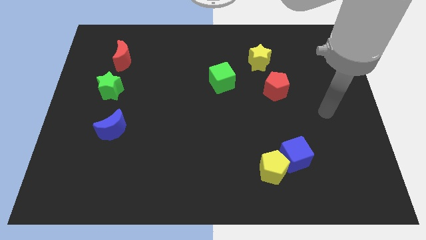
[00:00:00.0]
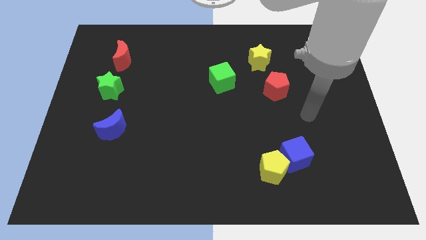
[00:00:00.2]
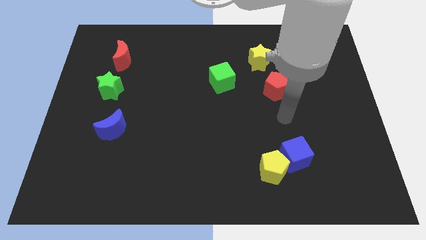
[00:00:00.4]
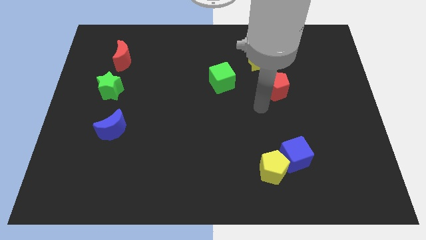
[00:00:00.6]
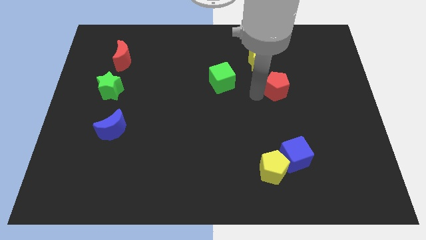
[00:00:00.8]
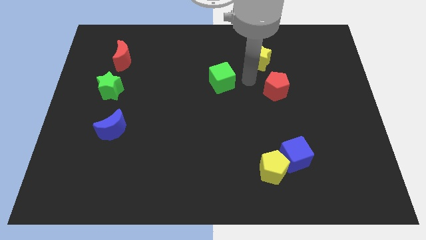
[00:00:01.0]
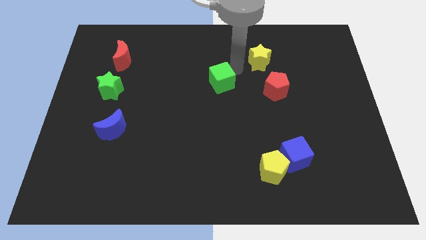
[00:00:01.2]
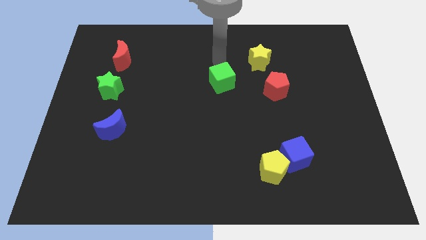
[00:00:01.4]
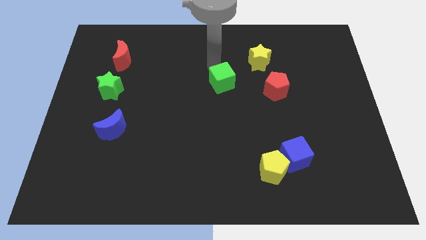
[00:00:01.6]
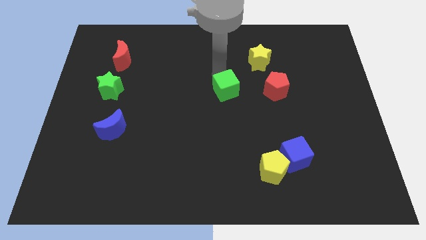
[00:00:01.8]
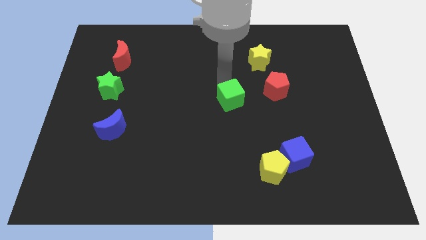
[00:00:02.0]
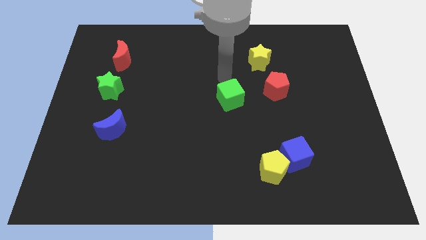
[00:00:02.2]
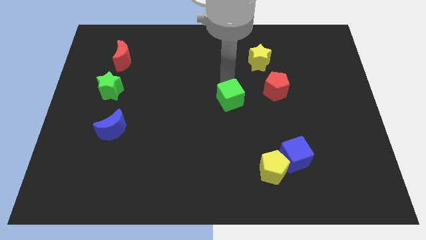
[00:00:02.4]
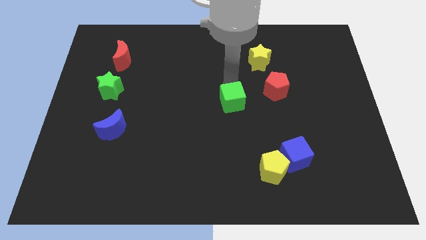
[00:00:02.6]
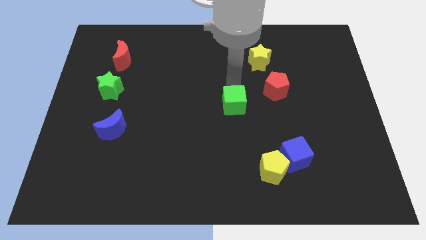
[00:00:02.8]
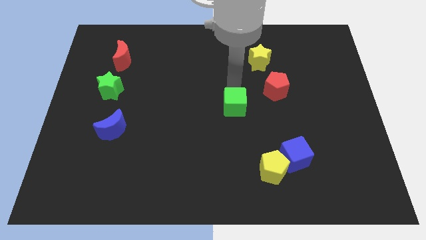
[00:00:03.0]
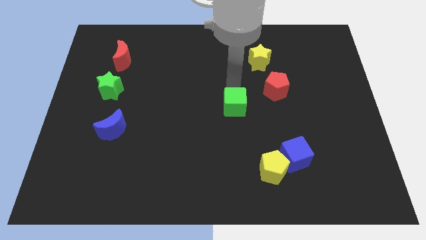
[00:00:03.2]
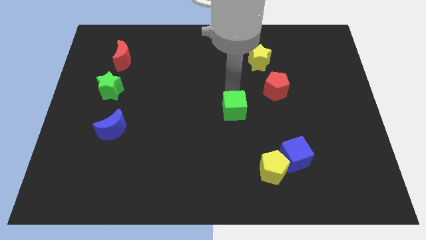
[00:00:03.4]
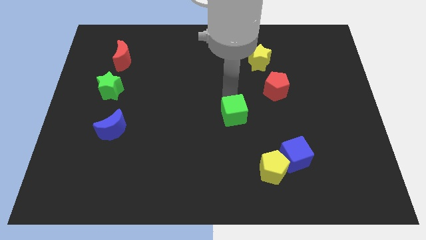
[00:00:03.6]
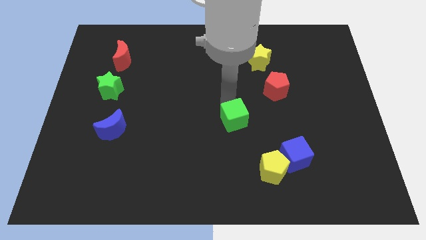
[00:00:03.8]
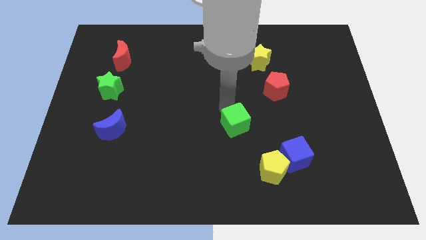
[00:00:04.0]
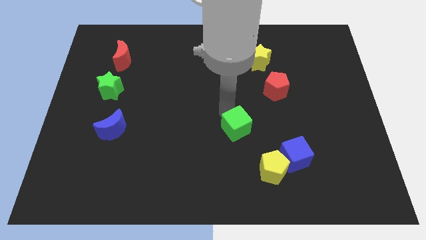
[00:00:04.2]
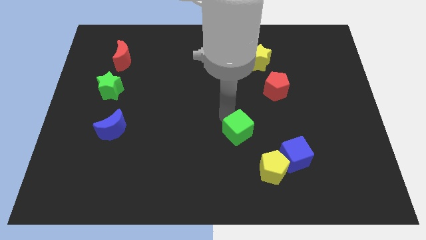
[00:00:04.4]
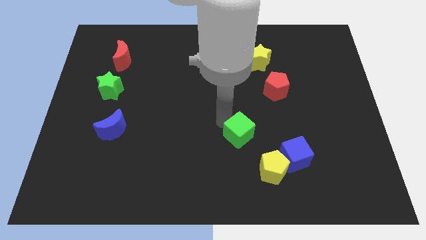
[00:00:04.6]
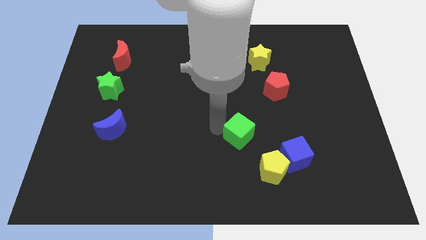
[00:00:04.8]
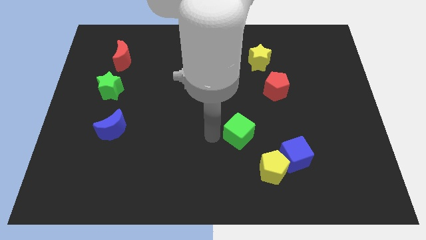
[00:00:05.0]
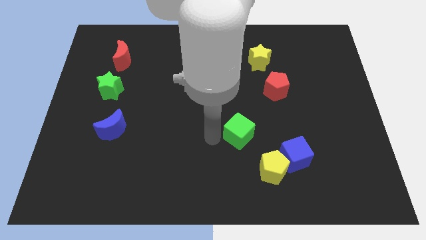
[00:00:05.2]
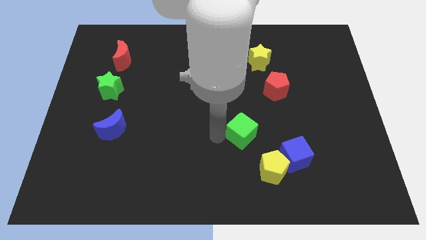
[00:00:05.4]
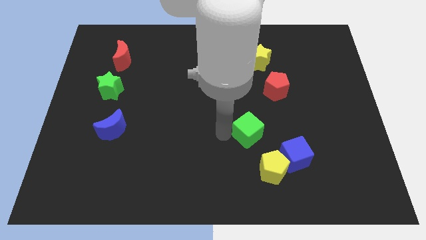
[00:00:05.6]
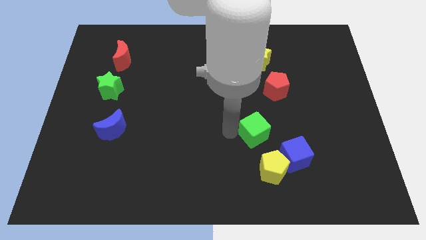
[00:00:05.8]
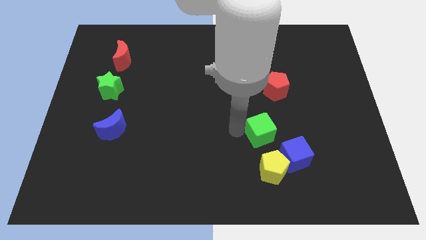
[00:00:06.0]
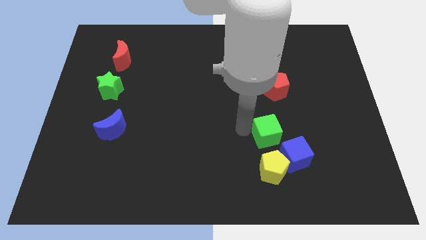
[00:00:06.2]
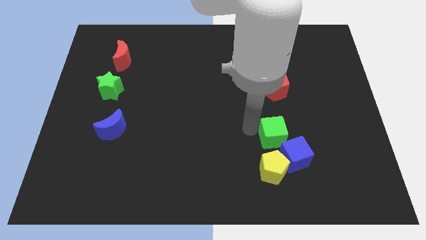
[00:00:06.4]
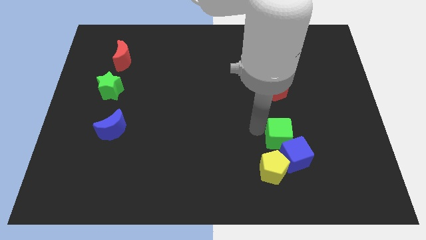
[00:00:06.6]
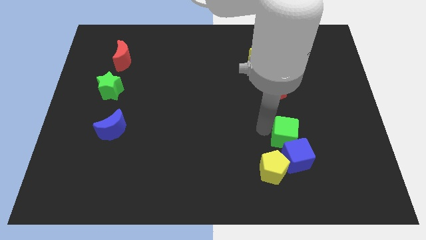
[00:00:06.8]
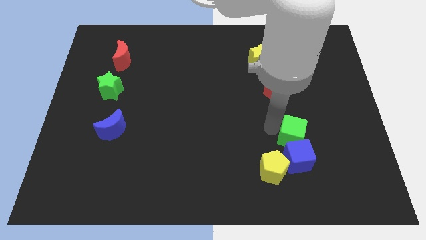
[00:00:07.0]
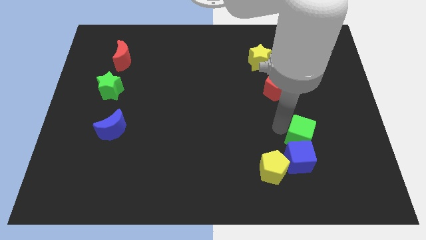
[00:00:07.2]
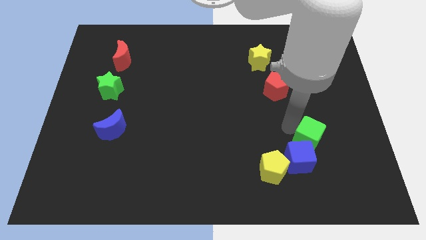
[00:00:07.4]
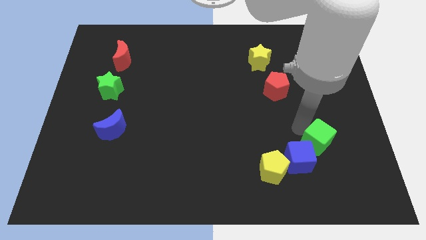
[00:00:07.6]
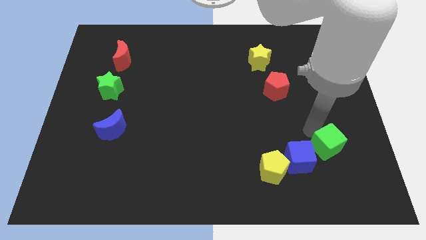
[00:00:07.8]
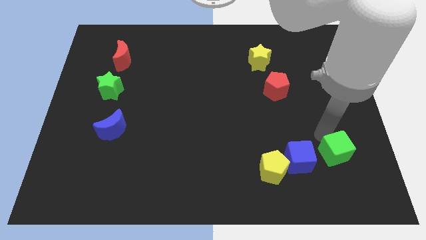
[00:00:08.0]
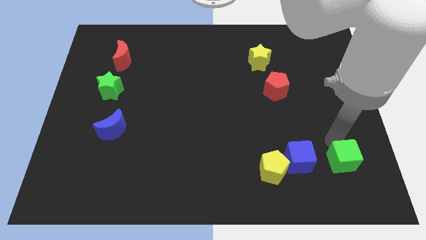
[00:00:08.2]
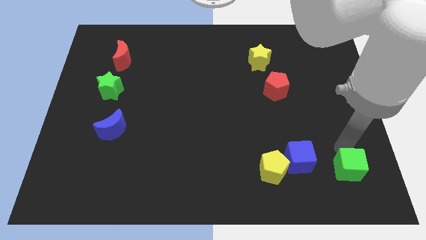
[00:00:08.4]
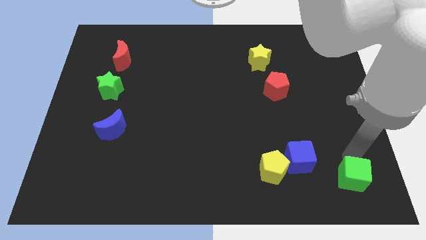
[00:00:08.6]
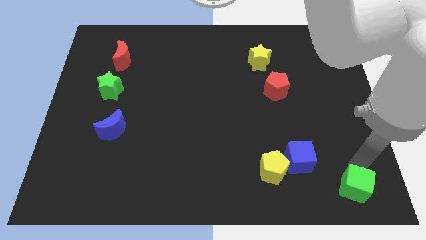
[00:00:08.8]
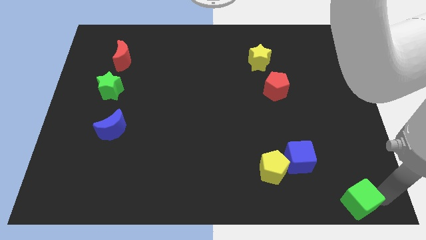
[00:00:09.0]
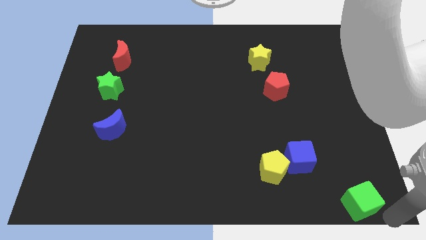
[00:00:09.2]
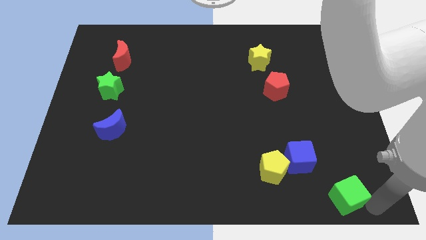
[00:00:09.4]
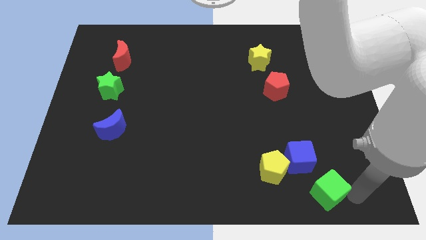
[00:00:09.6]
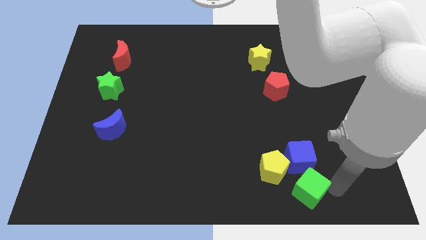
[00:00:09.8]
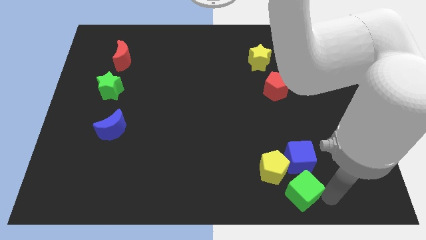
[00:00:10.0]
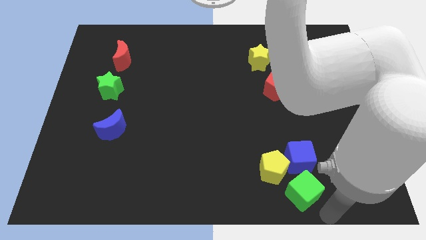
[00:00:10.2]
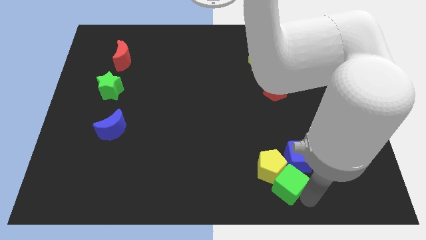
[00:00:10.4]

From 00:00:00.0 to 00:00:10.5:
move the green cube close to the yellow pentagon

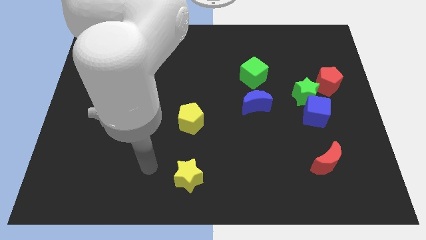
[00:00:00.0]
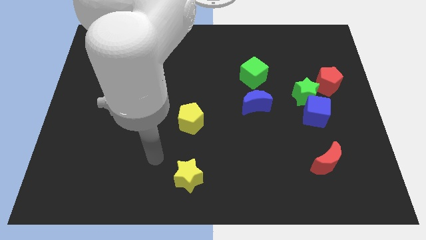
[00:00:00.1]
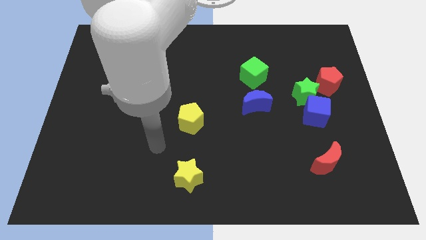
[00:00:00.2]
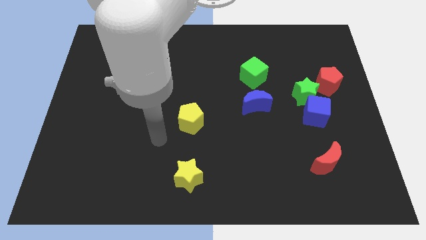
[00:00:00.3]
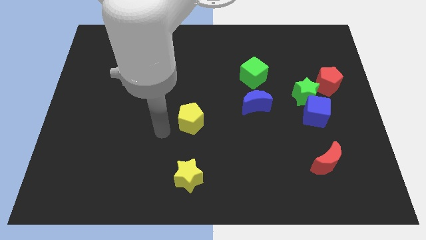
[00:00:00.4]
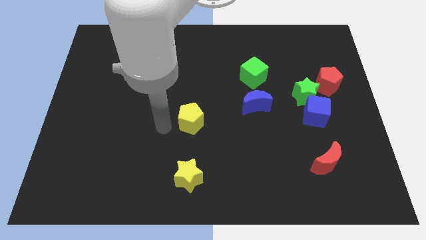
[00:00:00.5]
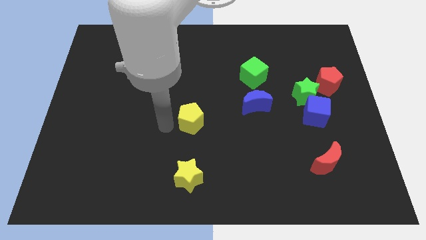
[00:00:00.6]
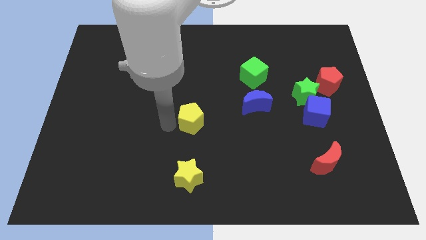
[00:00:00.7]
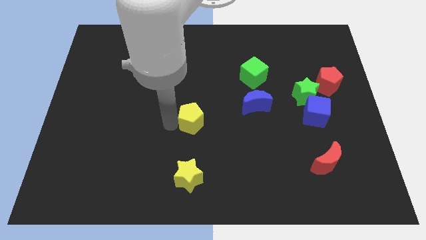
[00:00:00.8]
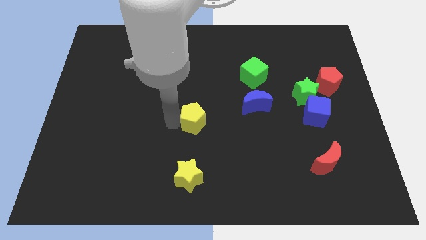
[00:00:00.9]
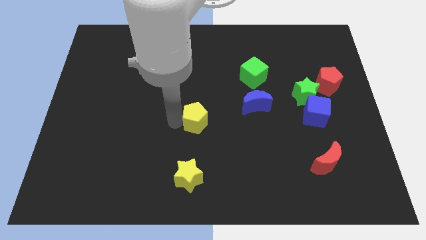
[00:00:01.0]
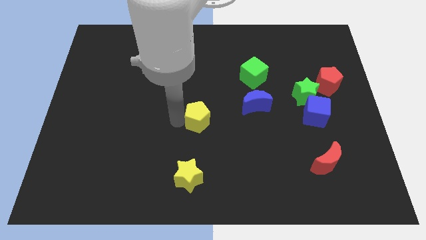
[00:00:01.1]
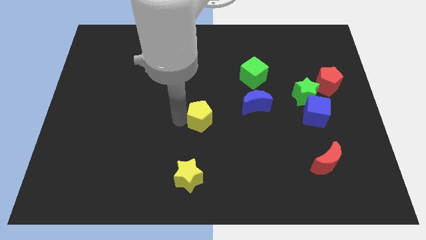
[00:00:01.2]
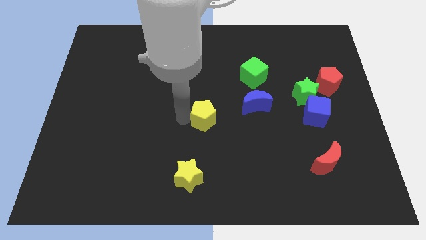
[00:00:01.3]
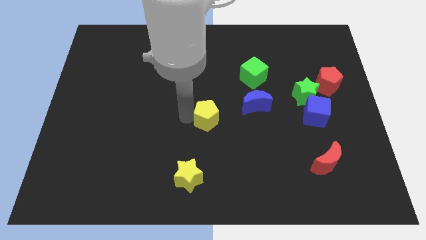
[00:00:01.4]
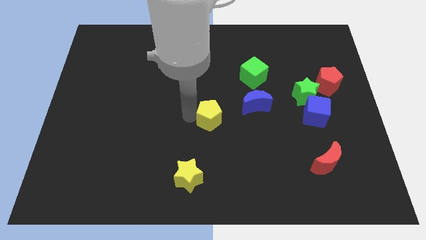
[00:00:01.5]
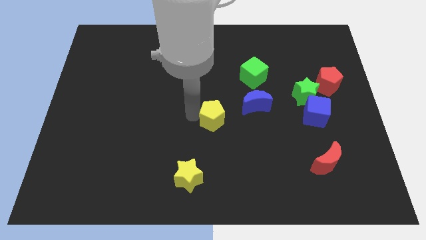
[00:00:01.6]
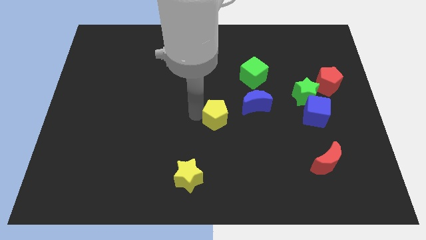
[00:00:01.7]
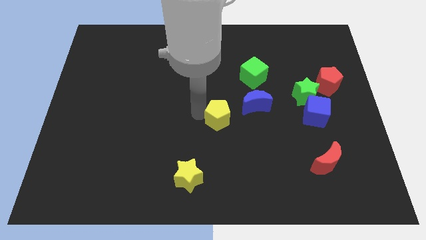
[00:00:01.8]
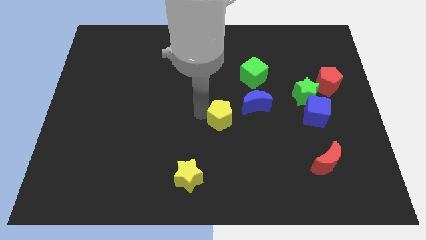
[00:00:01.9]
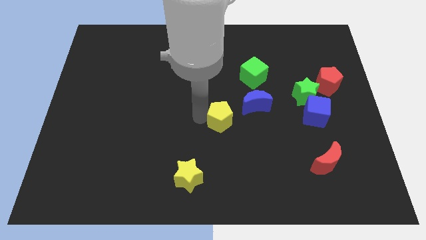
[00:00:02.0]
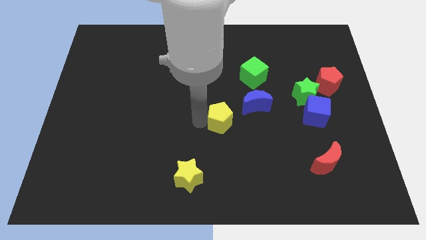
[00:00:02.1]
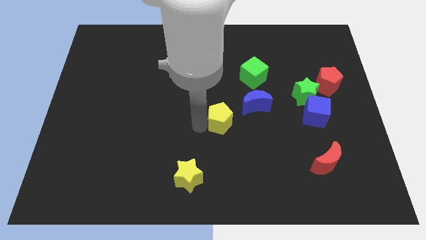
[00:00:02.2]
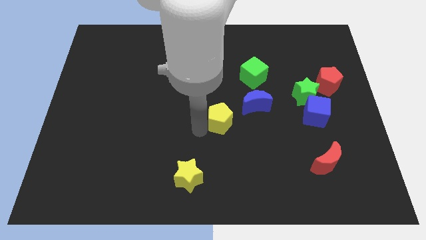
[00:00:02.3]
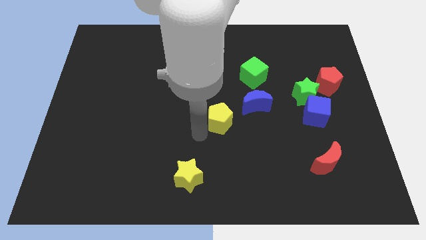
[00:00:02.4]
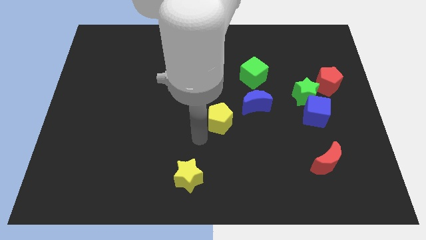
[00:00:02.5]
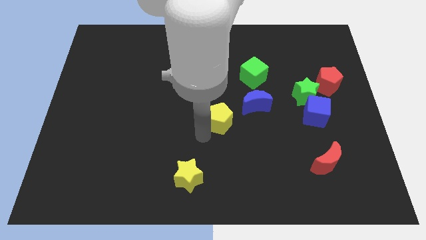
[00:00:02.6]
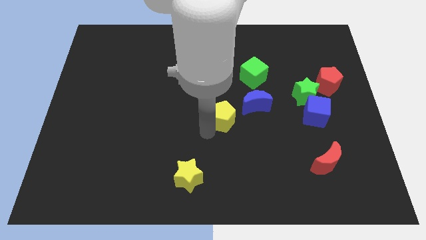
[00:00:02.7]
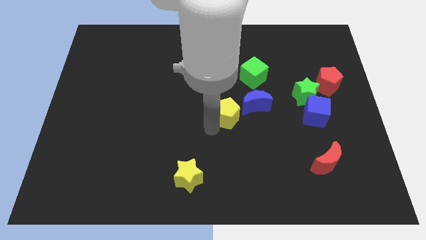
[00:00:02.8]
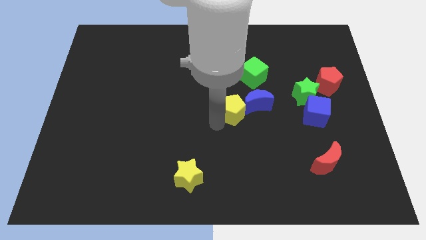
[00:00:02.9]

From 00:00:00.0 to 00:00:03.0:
put the yellow pentagon to the blue moon
